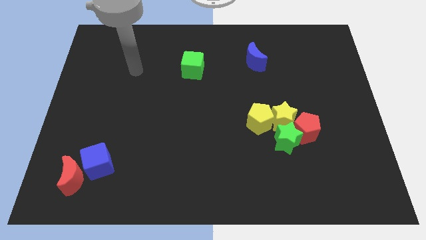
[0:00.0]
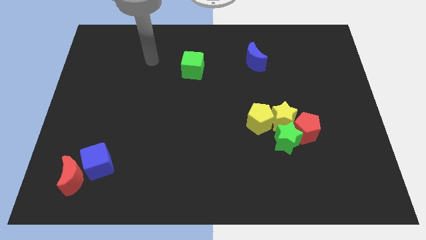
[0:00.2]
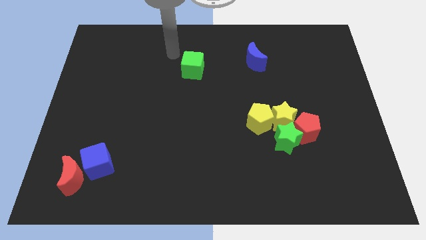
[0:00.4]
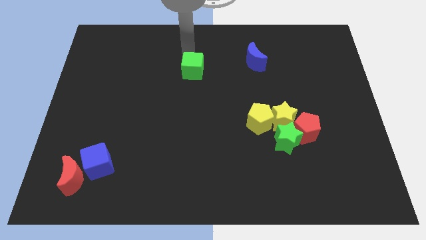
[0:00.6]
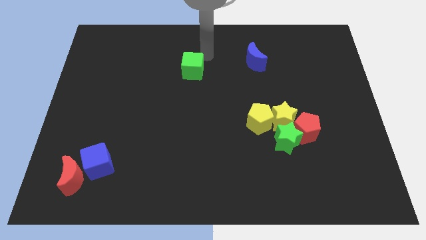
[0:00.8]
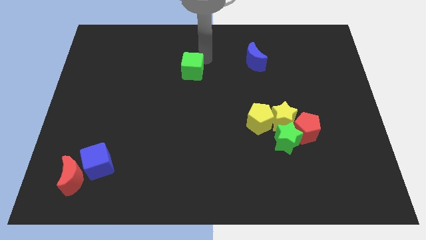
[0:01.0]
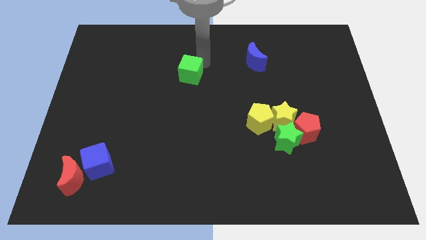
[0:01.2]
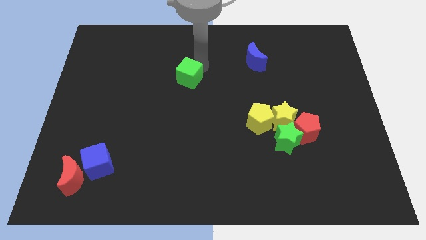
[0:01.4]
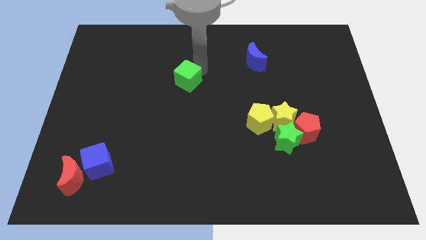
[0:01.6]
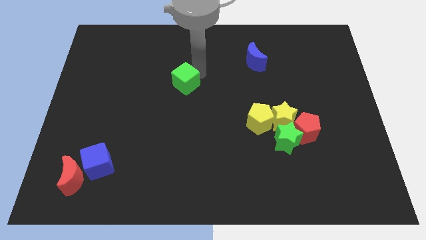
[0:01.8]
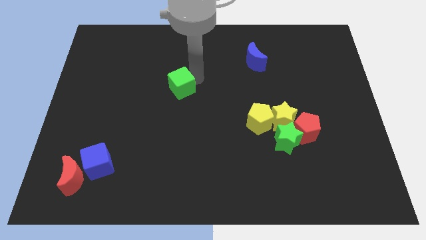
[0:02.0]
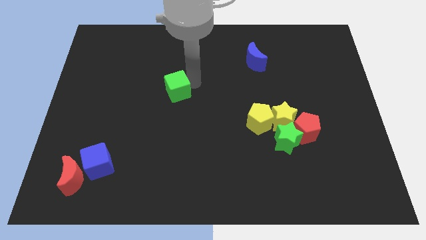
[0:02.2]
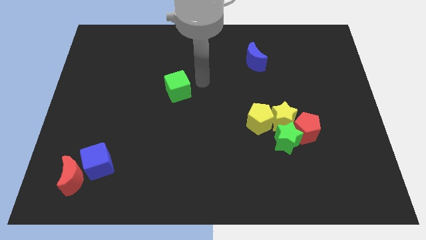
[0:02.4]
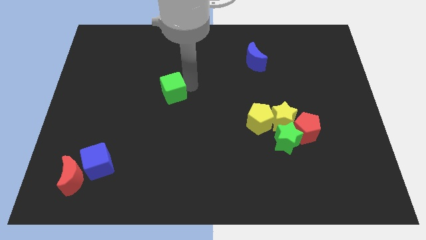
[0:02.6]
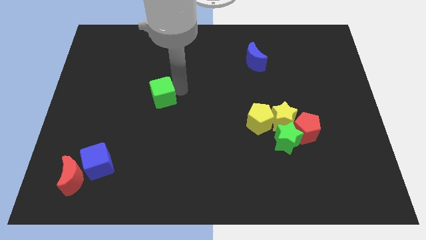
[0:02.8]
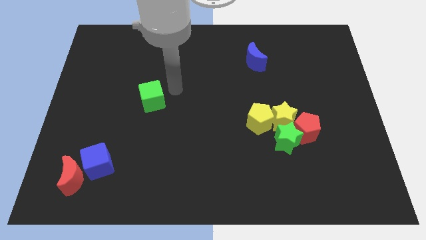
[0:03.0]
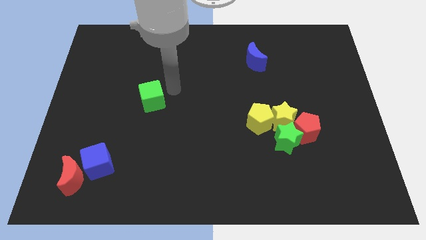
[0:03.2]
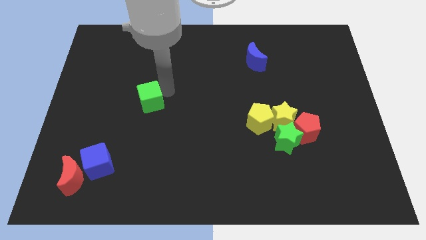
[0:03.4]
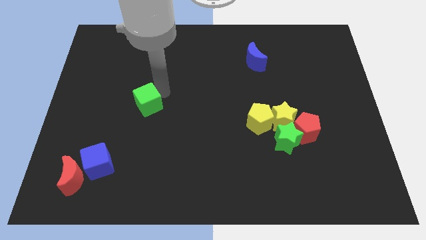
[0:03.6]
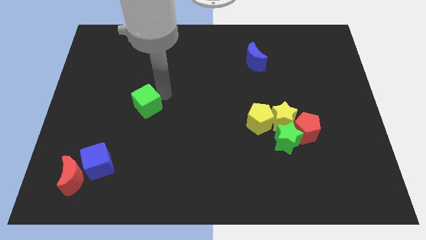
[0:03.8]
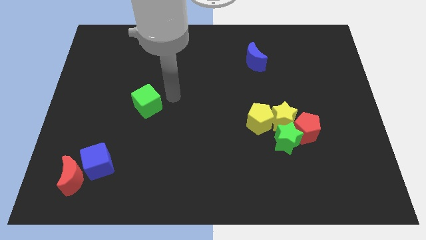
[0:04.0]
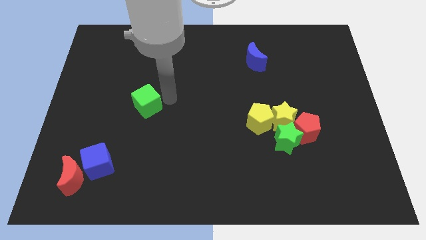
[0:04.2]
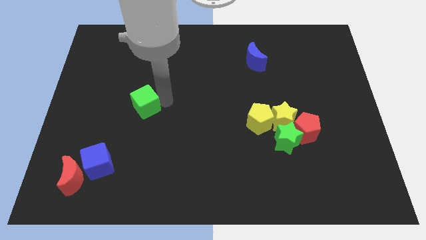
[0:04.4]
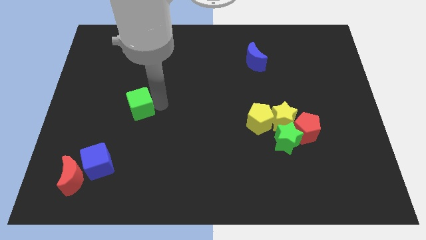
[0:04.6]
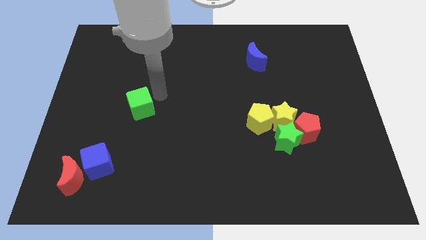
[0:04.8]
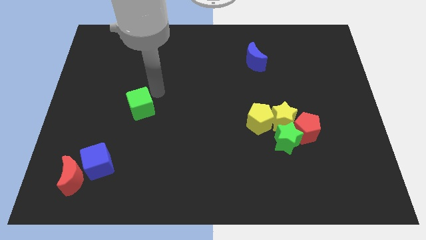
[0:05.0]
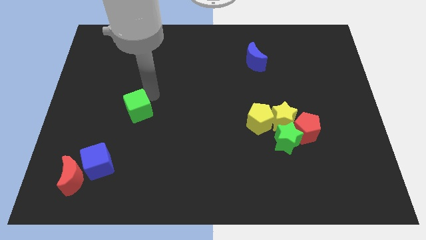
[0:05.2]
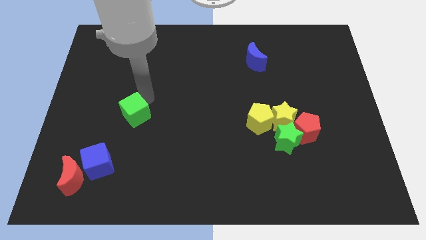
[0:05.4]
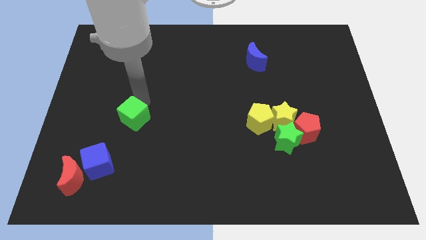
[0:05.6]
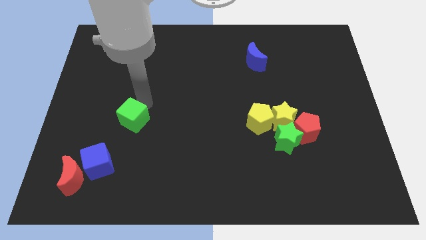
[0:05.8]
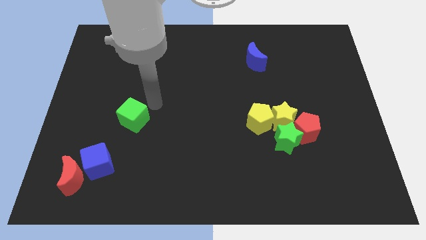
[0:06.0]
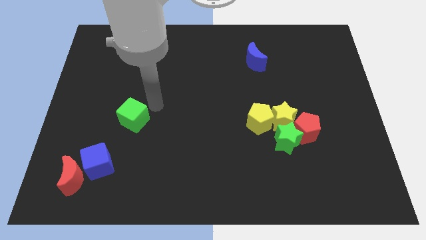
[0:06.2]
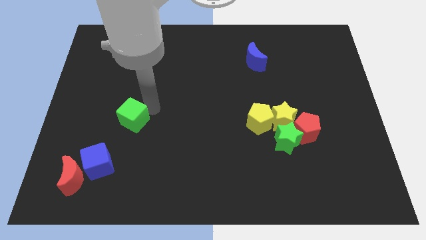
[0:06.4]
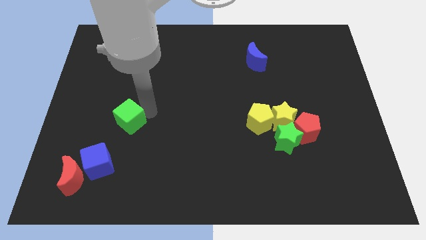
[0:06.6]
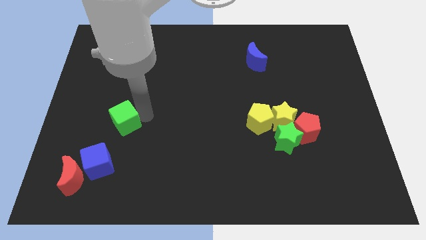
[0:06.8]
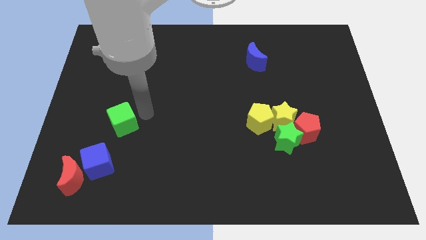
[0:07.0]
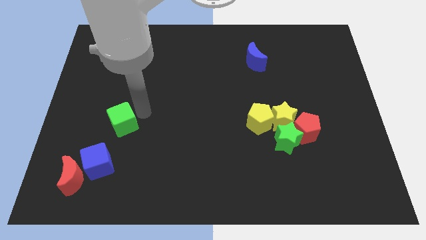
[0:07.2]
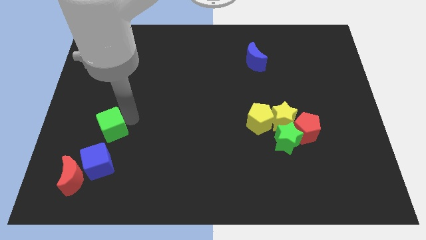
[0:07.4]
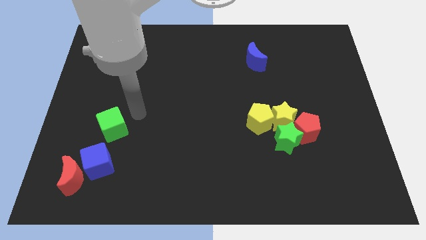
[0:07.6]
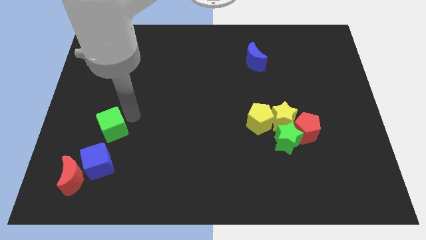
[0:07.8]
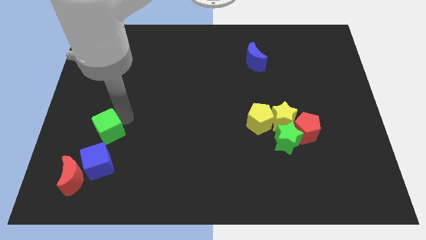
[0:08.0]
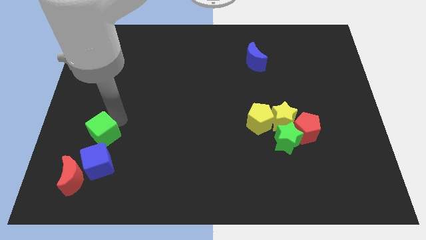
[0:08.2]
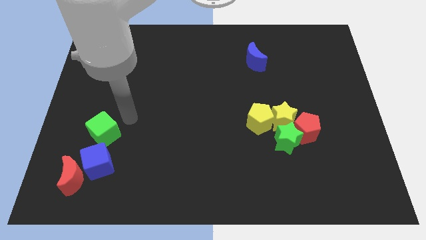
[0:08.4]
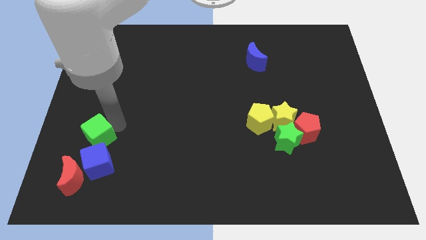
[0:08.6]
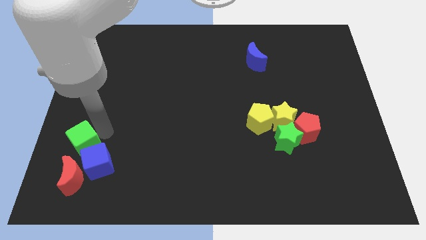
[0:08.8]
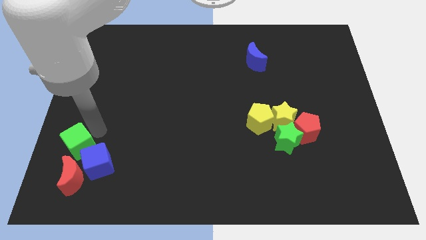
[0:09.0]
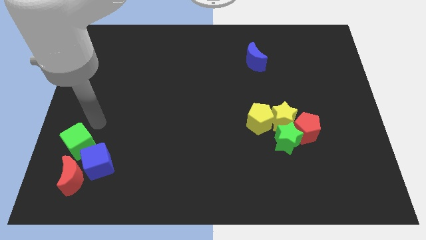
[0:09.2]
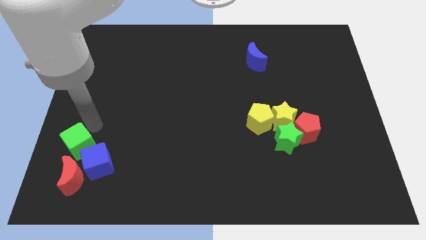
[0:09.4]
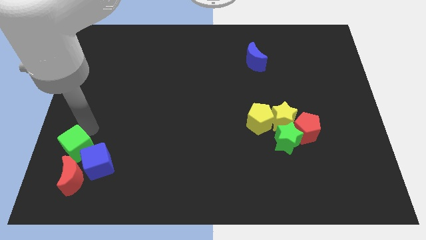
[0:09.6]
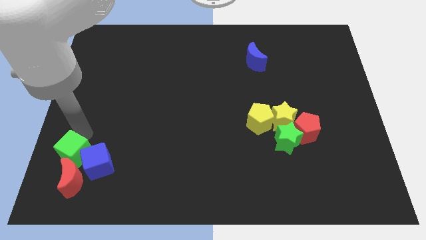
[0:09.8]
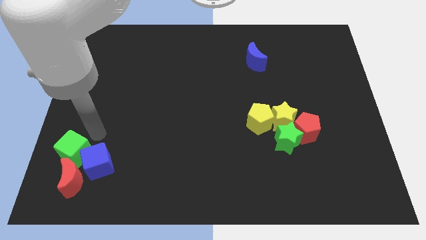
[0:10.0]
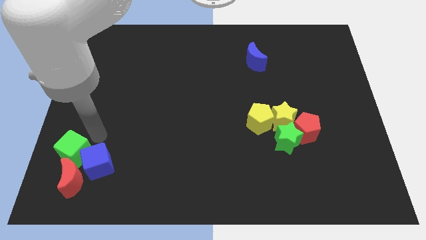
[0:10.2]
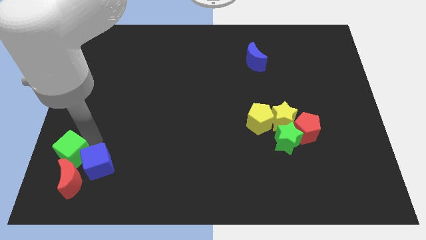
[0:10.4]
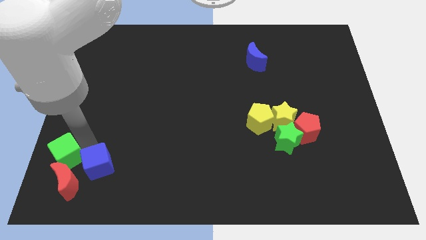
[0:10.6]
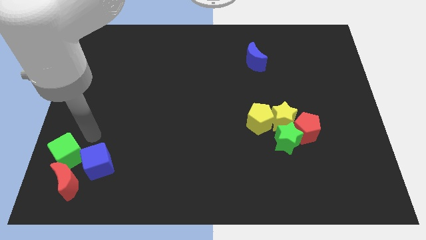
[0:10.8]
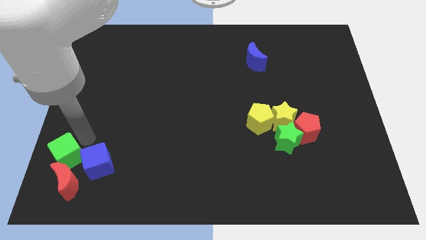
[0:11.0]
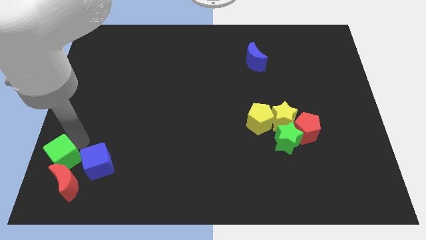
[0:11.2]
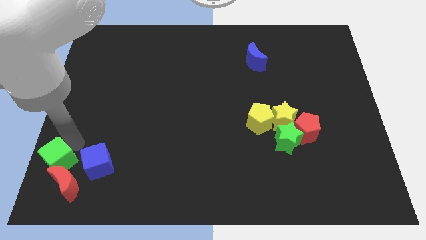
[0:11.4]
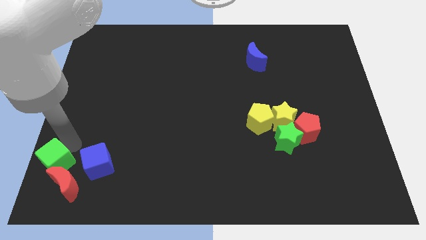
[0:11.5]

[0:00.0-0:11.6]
move the green cube to the bottom left

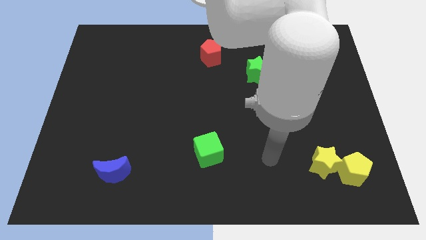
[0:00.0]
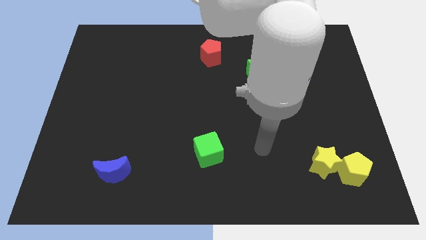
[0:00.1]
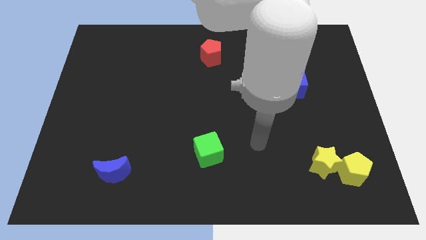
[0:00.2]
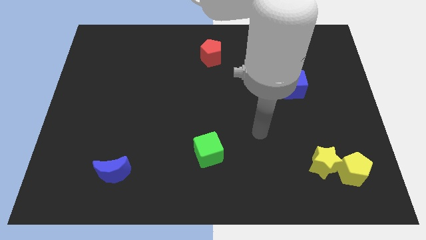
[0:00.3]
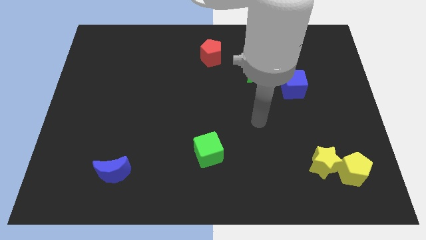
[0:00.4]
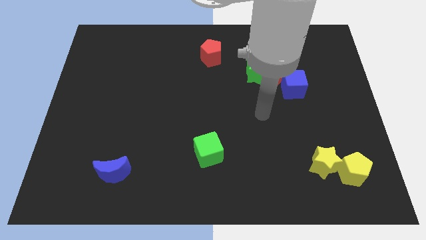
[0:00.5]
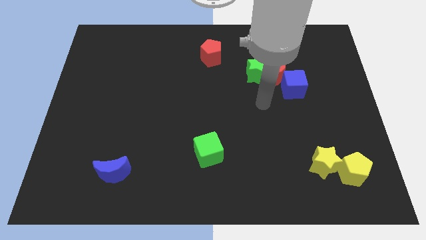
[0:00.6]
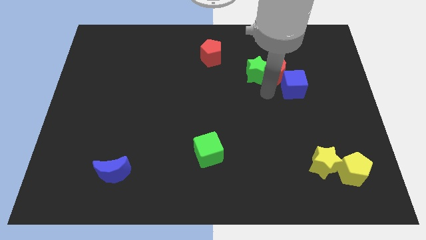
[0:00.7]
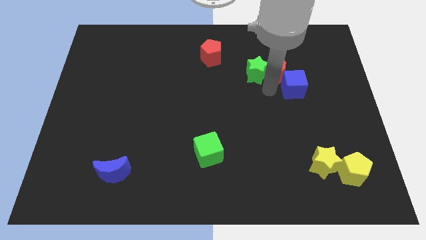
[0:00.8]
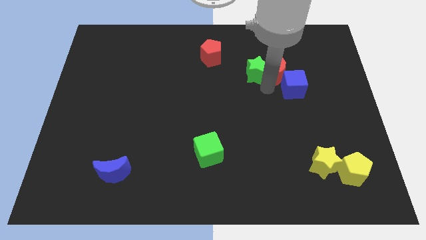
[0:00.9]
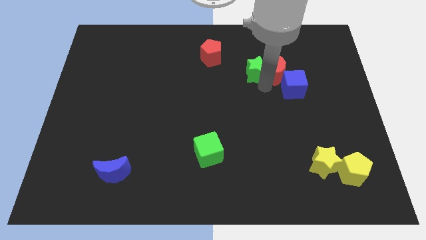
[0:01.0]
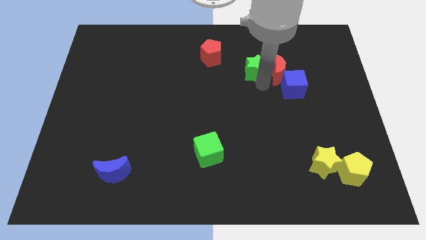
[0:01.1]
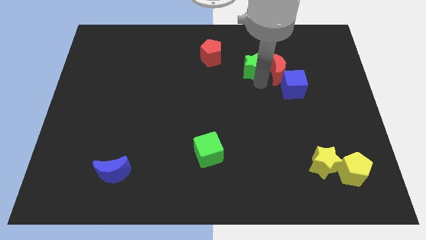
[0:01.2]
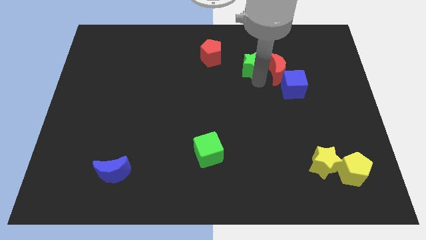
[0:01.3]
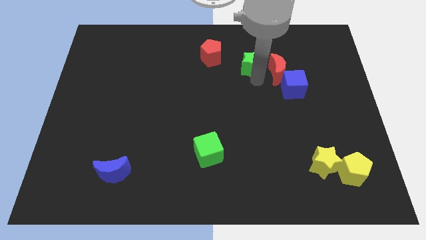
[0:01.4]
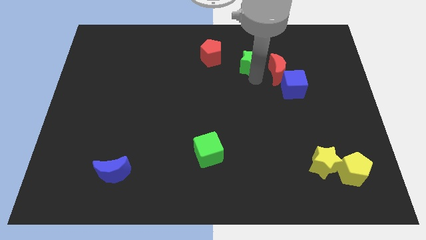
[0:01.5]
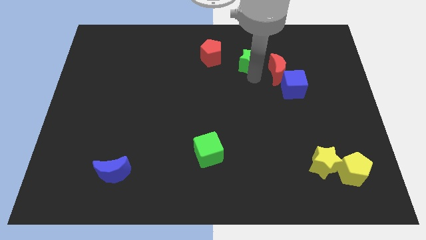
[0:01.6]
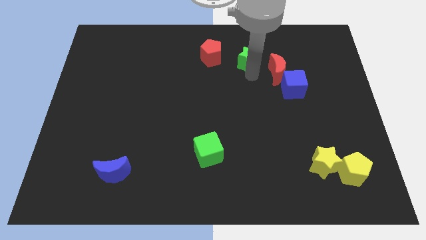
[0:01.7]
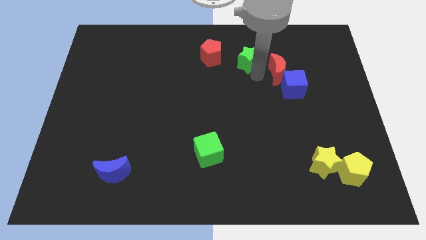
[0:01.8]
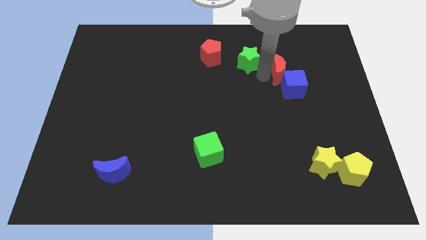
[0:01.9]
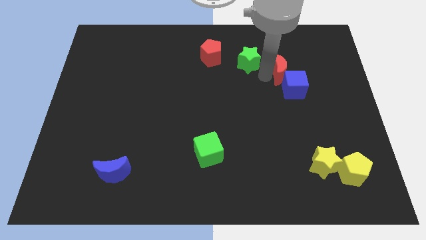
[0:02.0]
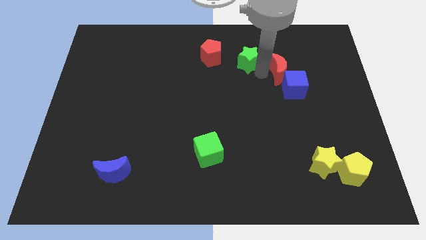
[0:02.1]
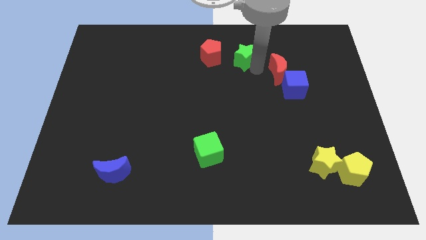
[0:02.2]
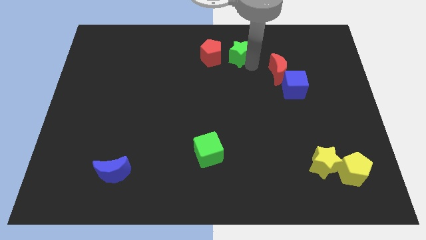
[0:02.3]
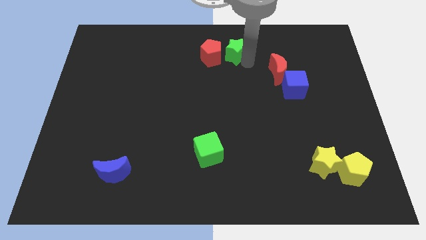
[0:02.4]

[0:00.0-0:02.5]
push the green star to the towards your base
